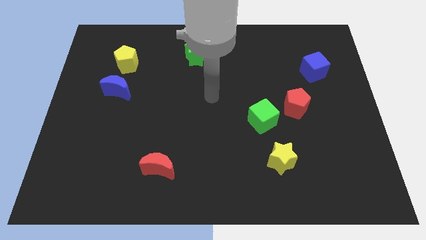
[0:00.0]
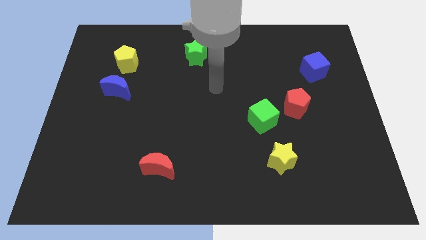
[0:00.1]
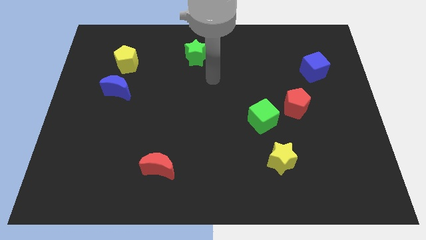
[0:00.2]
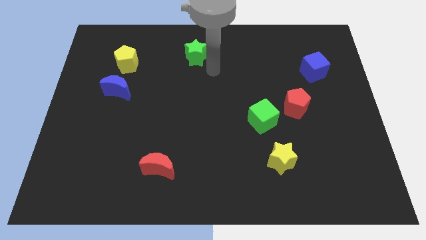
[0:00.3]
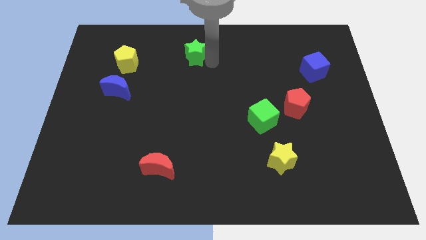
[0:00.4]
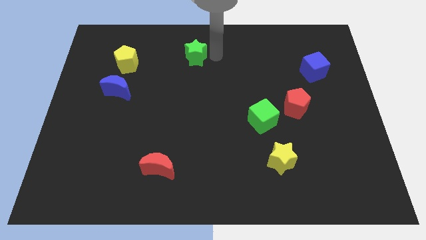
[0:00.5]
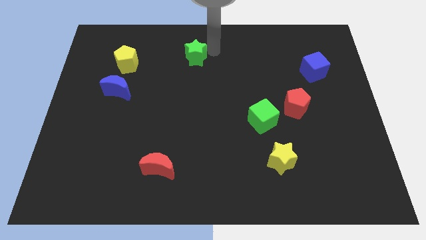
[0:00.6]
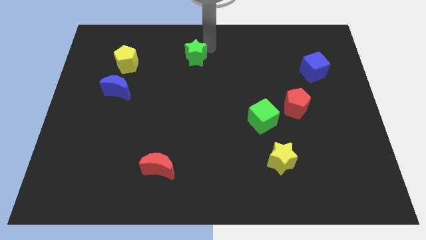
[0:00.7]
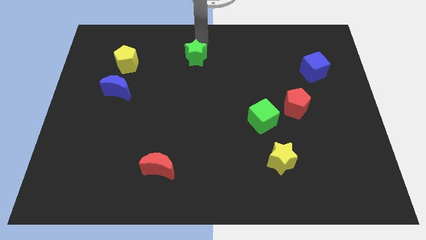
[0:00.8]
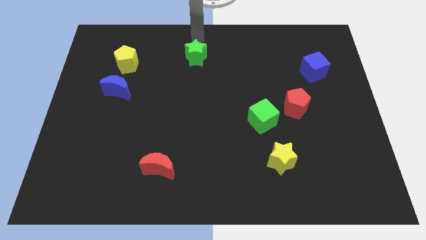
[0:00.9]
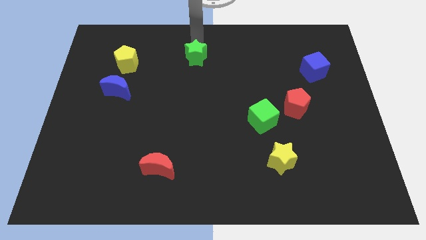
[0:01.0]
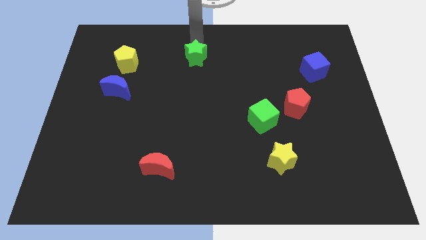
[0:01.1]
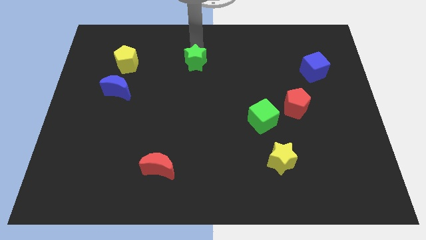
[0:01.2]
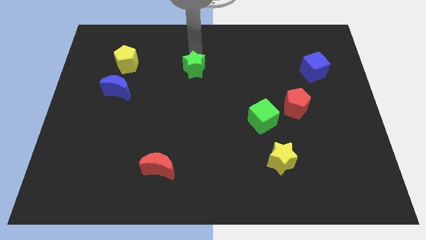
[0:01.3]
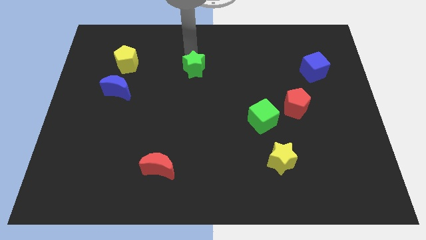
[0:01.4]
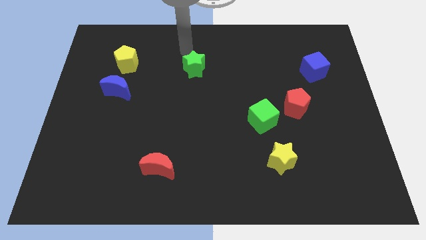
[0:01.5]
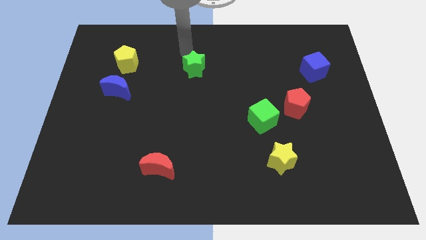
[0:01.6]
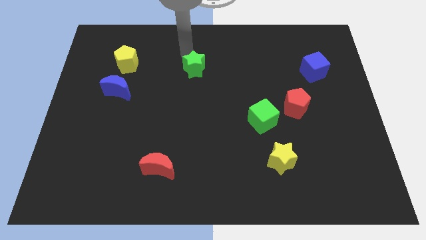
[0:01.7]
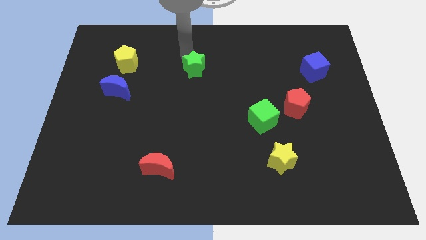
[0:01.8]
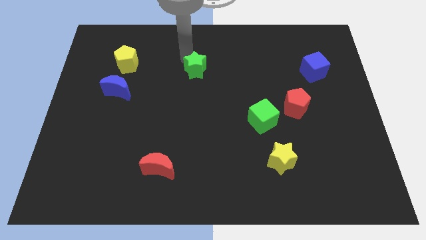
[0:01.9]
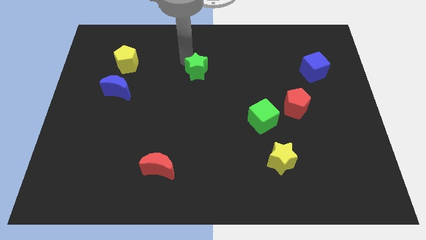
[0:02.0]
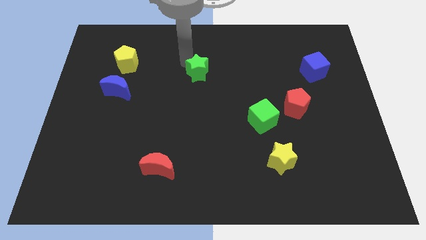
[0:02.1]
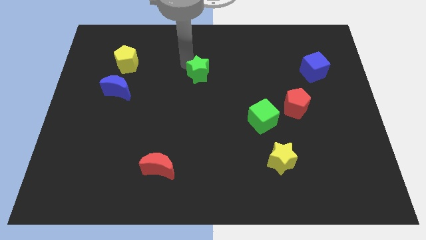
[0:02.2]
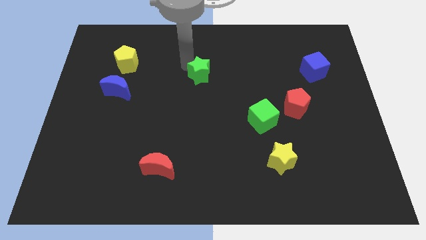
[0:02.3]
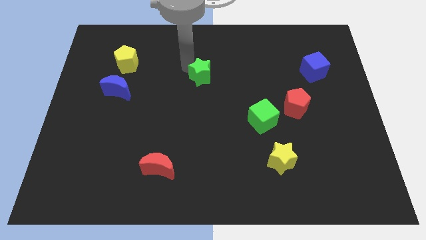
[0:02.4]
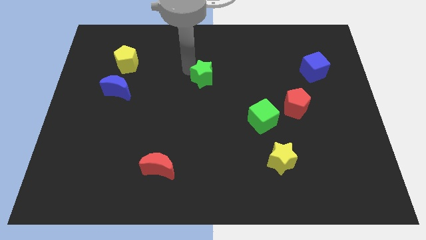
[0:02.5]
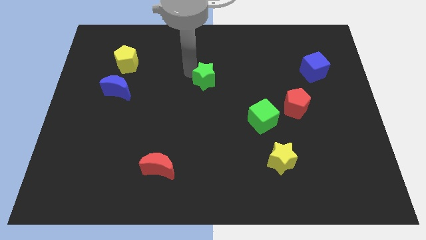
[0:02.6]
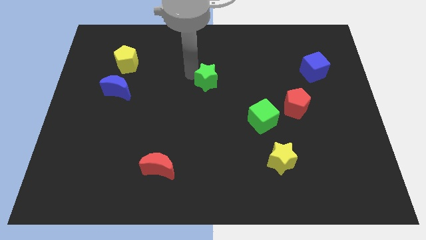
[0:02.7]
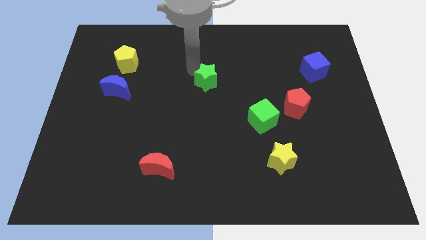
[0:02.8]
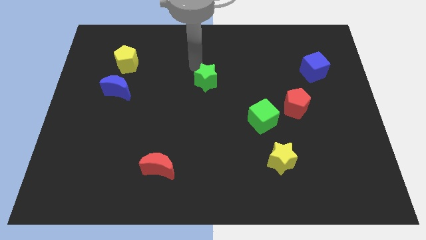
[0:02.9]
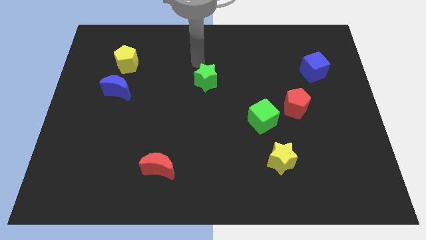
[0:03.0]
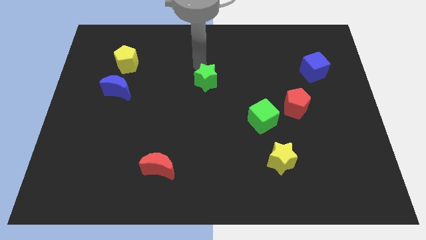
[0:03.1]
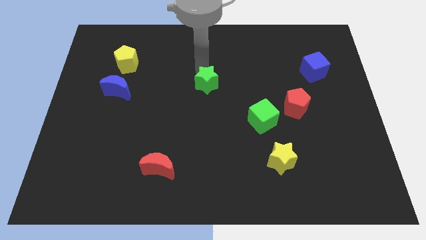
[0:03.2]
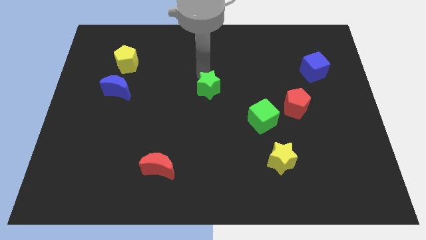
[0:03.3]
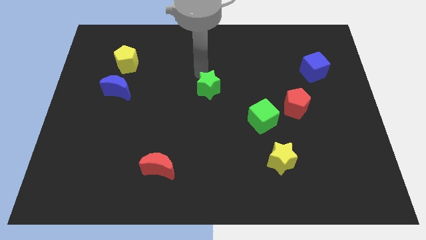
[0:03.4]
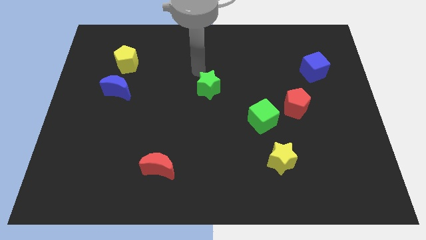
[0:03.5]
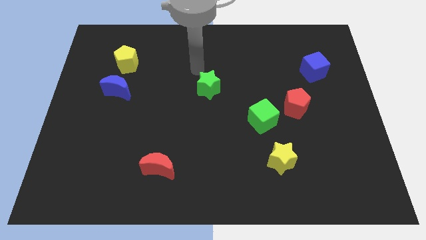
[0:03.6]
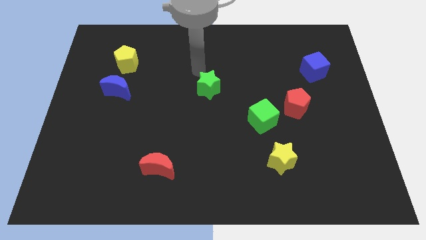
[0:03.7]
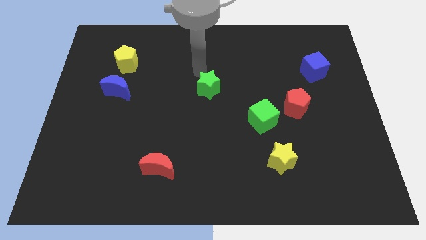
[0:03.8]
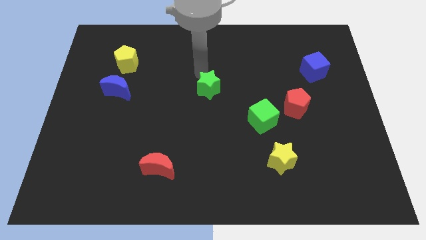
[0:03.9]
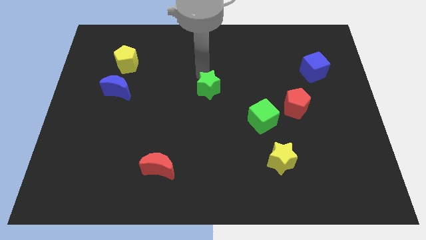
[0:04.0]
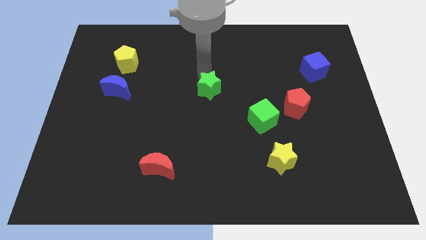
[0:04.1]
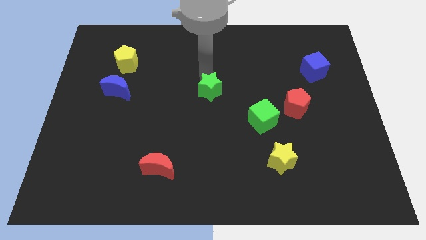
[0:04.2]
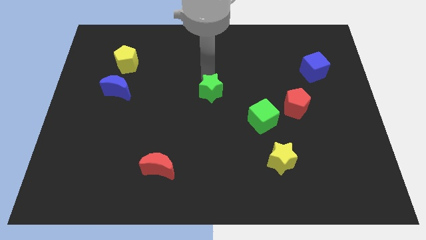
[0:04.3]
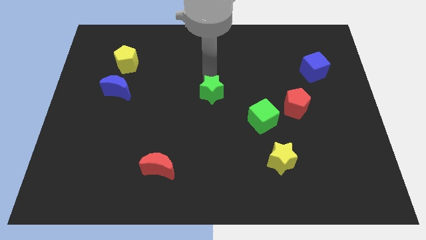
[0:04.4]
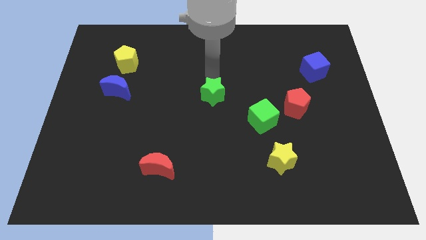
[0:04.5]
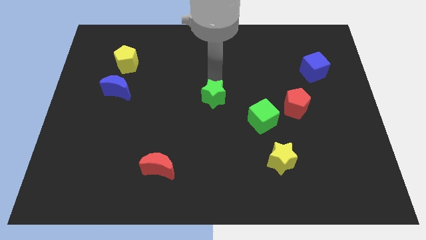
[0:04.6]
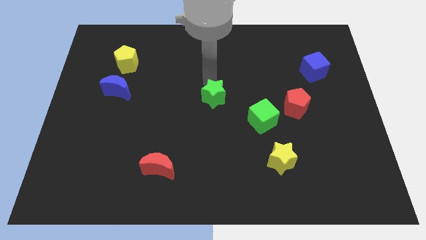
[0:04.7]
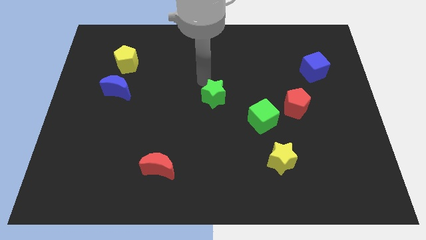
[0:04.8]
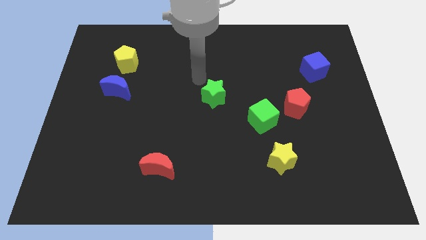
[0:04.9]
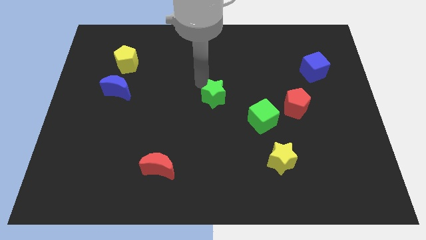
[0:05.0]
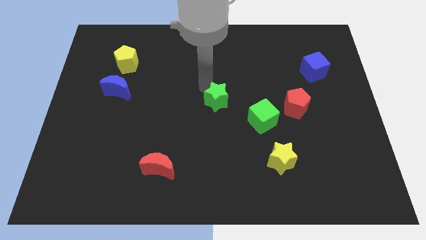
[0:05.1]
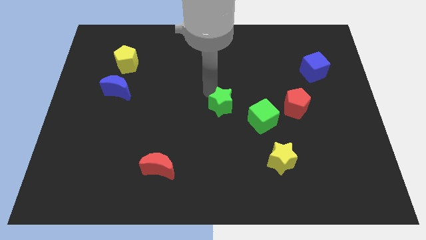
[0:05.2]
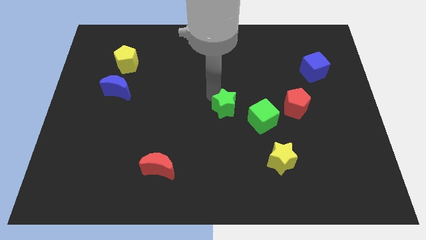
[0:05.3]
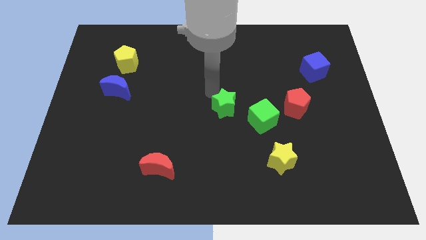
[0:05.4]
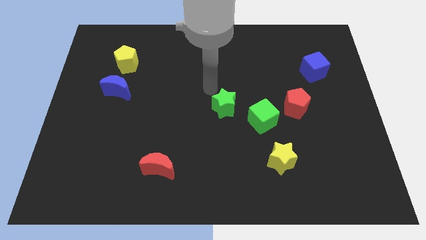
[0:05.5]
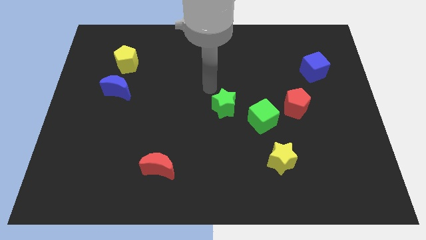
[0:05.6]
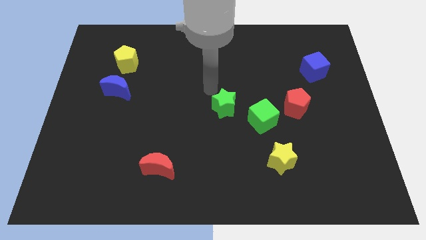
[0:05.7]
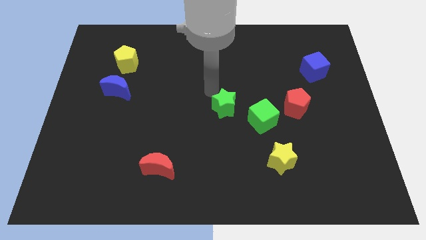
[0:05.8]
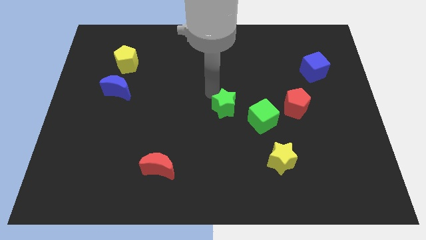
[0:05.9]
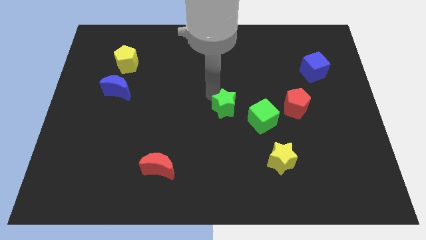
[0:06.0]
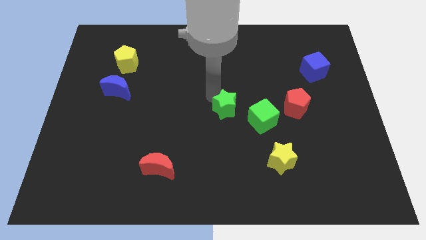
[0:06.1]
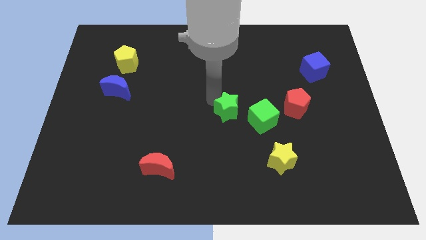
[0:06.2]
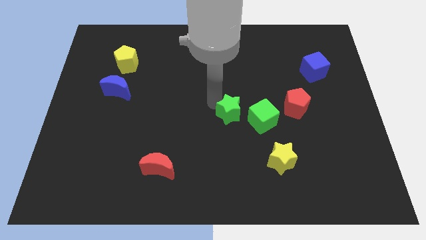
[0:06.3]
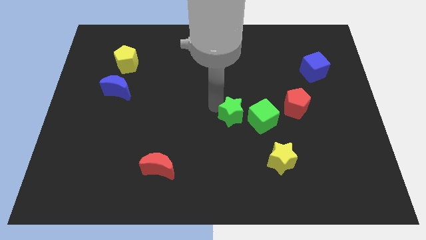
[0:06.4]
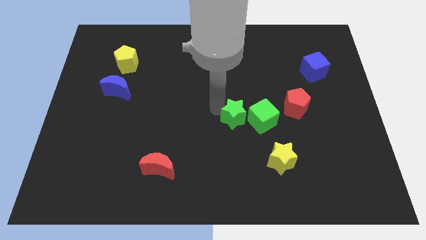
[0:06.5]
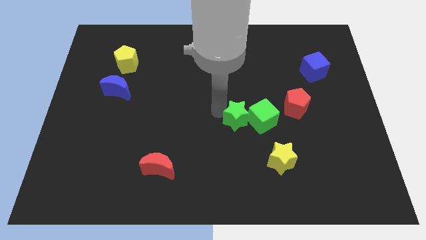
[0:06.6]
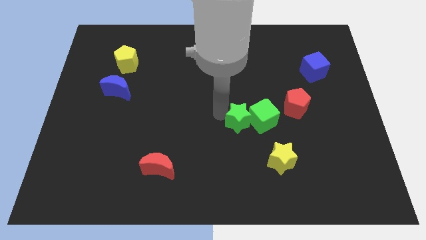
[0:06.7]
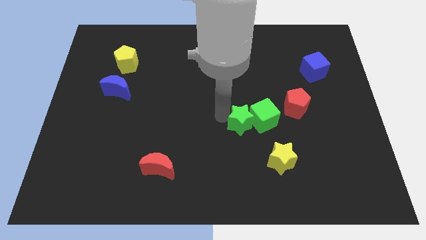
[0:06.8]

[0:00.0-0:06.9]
put the green star diagonally up and to the left of the yellow star

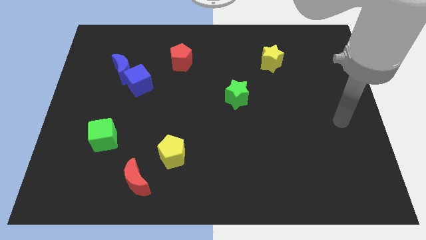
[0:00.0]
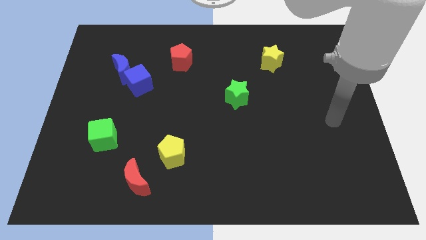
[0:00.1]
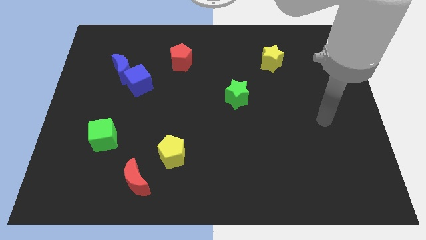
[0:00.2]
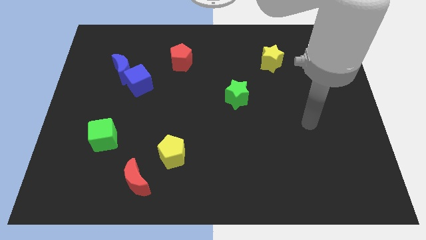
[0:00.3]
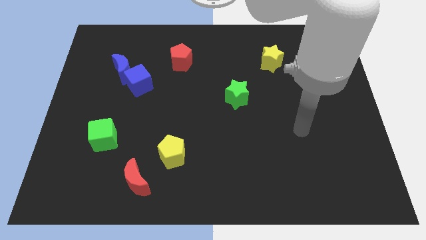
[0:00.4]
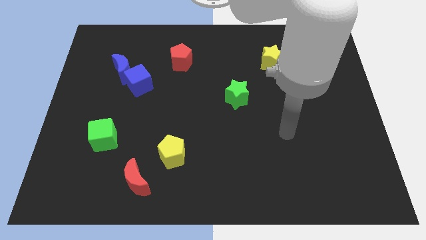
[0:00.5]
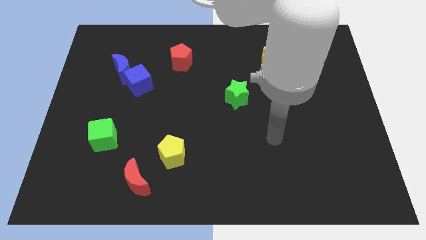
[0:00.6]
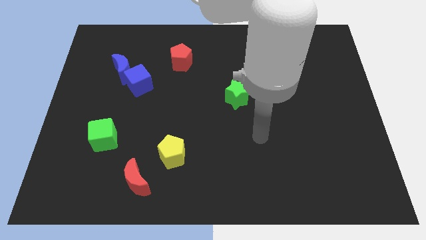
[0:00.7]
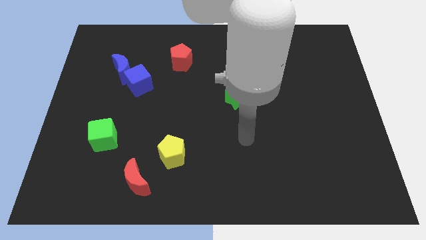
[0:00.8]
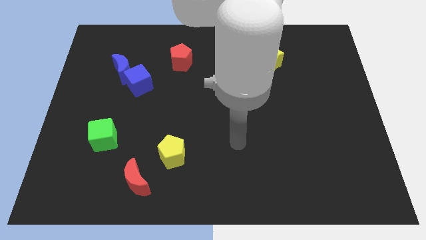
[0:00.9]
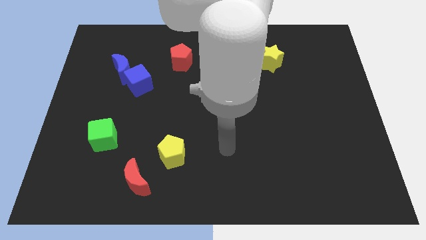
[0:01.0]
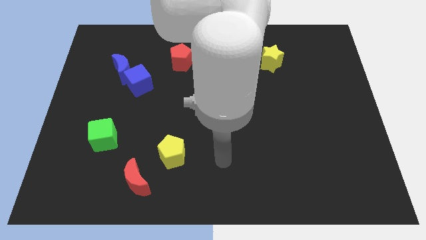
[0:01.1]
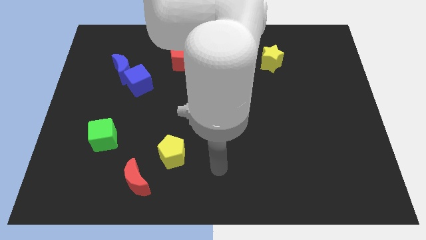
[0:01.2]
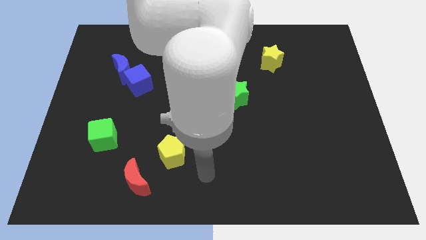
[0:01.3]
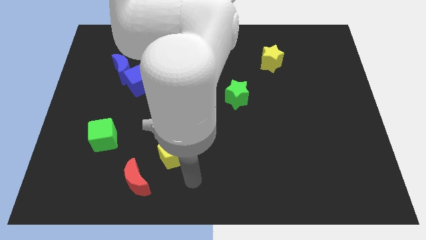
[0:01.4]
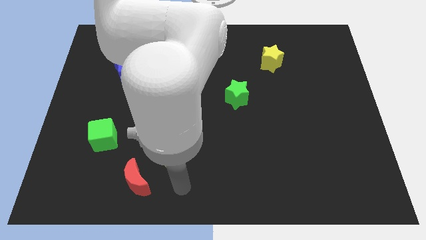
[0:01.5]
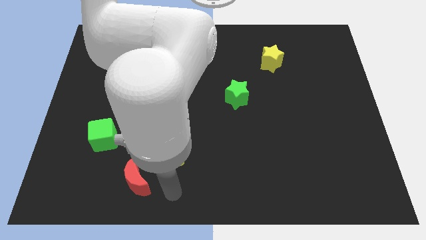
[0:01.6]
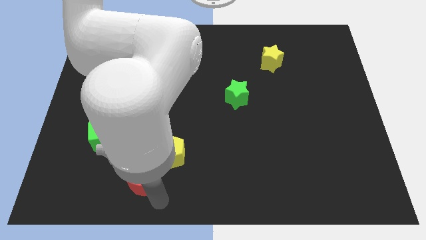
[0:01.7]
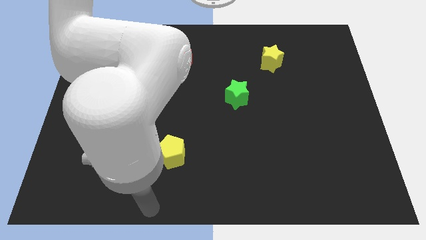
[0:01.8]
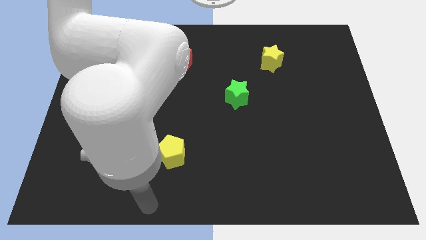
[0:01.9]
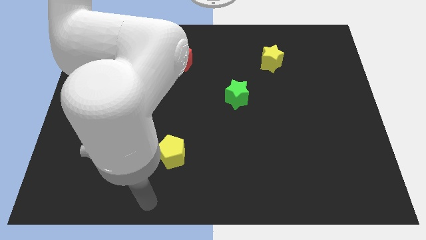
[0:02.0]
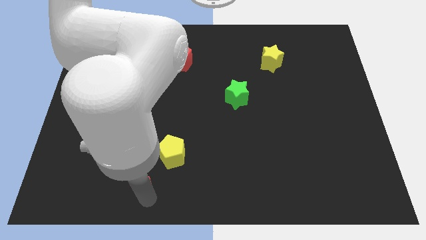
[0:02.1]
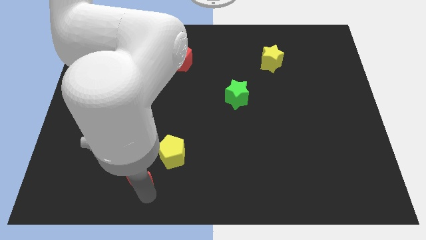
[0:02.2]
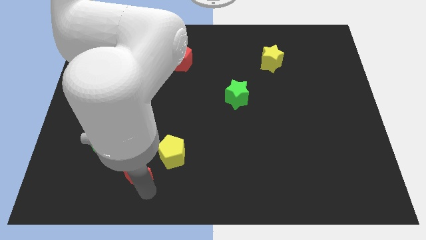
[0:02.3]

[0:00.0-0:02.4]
move the red moon to the left side of the yellow pentagon
